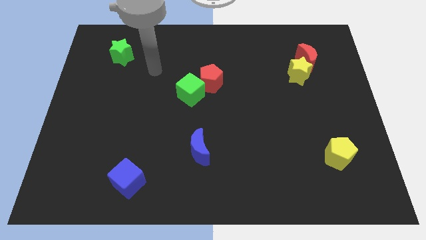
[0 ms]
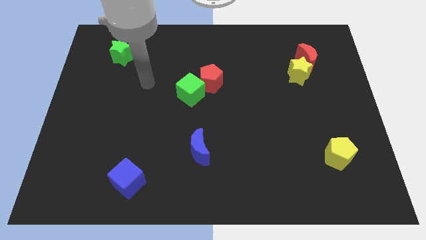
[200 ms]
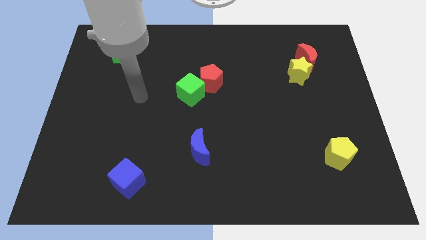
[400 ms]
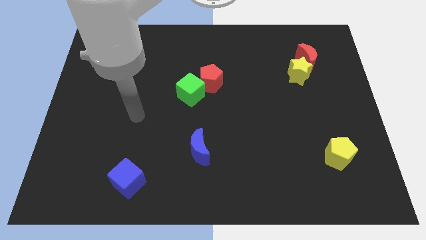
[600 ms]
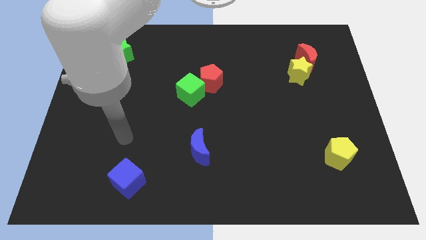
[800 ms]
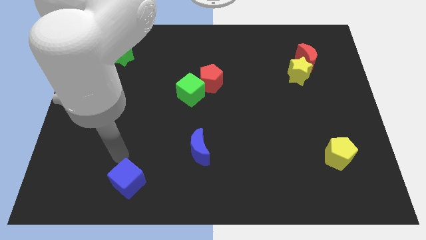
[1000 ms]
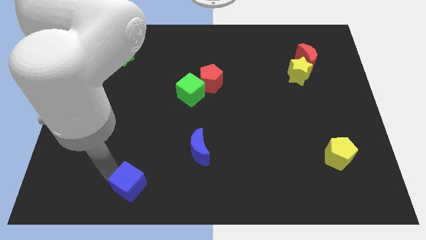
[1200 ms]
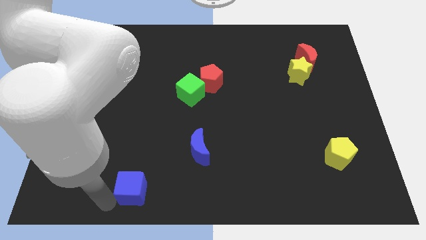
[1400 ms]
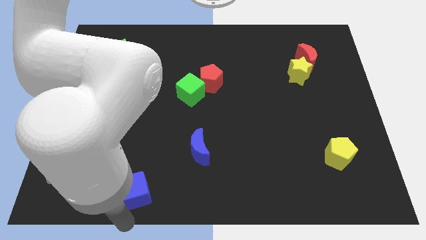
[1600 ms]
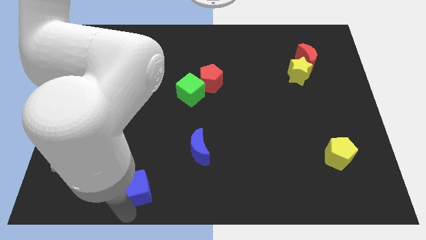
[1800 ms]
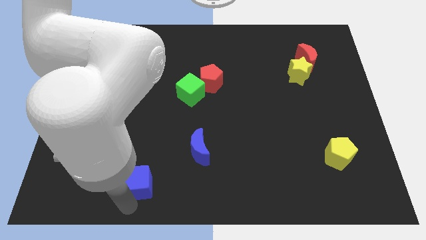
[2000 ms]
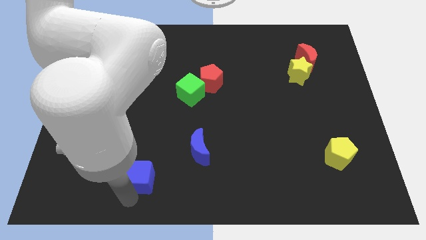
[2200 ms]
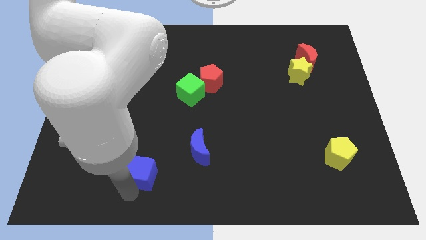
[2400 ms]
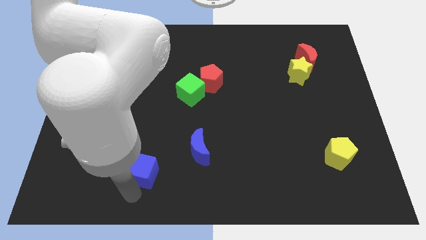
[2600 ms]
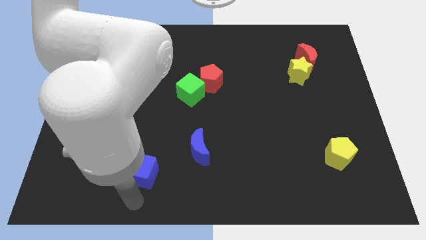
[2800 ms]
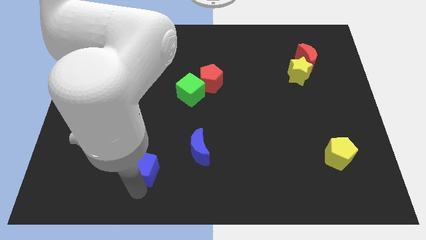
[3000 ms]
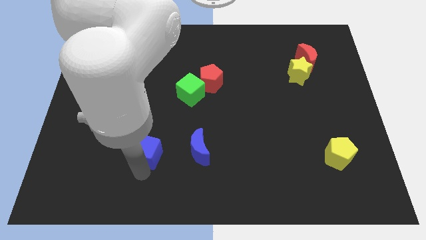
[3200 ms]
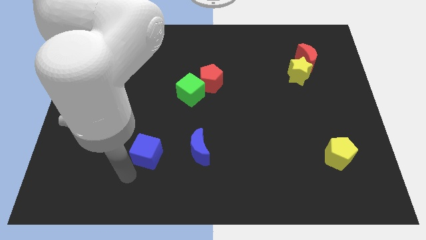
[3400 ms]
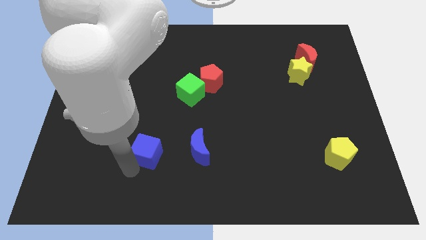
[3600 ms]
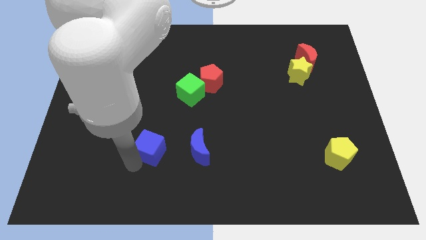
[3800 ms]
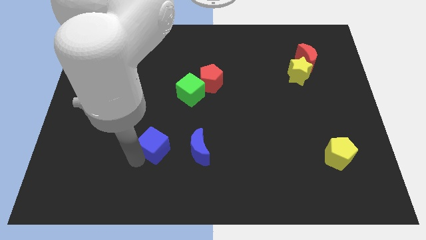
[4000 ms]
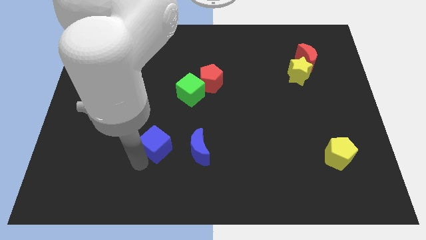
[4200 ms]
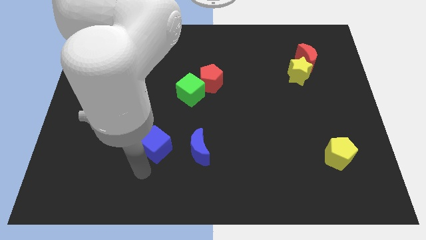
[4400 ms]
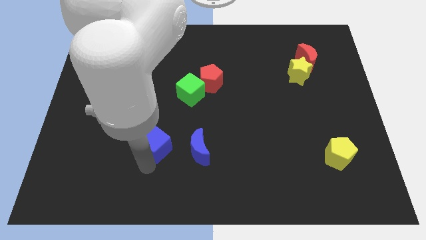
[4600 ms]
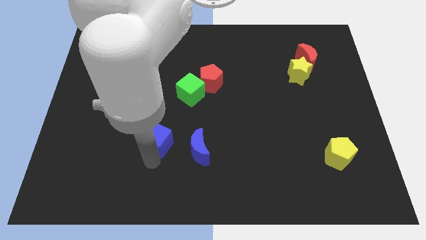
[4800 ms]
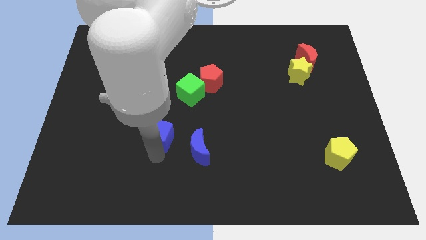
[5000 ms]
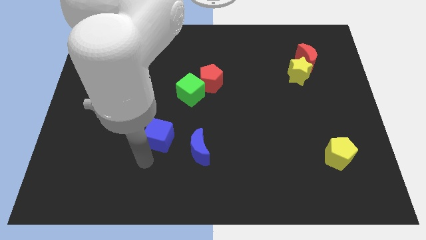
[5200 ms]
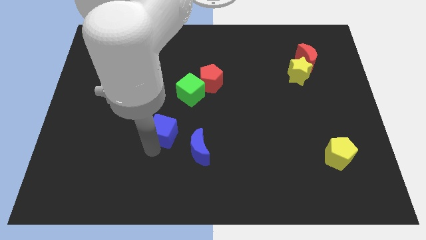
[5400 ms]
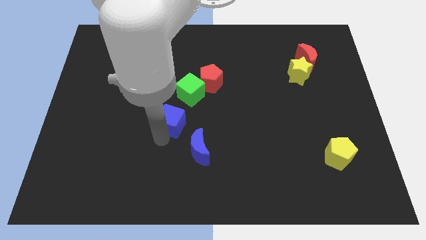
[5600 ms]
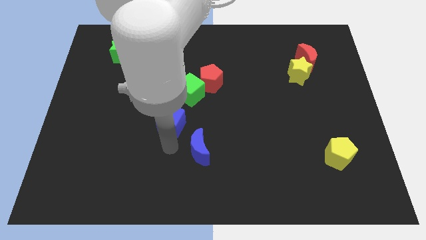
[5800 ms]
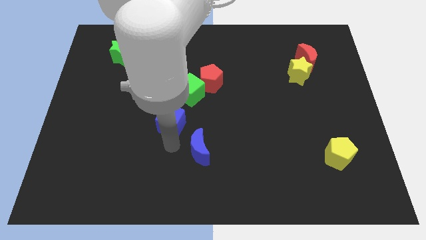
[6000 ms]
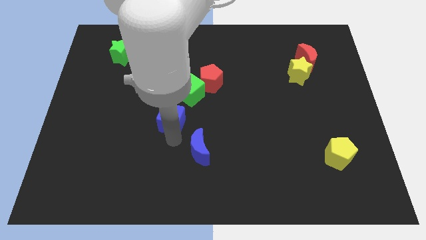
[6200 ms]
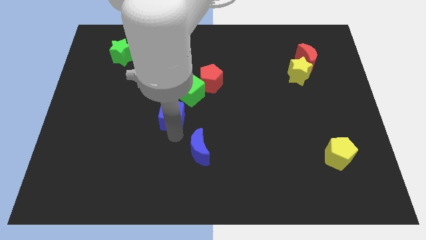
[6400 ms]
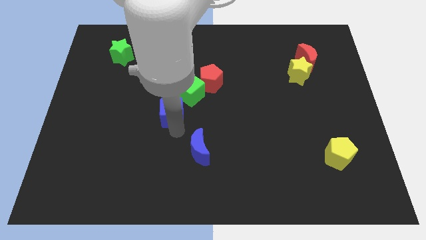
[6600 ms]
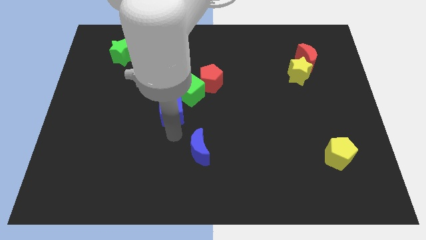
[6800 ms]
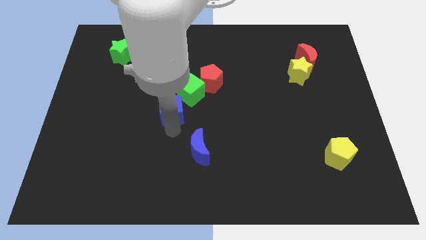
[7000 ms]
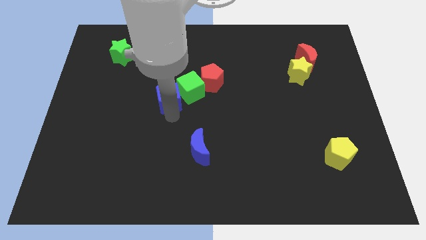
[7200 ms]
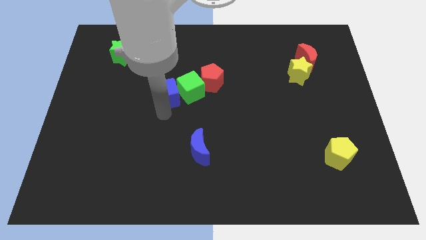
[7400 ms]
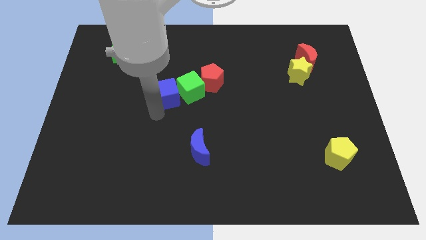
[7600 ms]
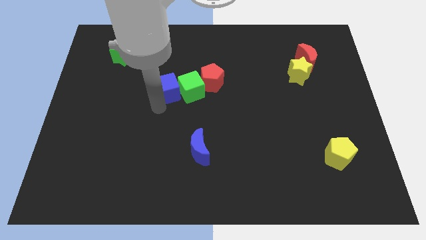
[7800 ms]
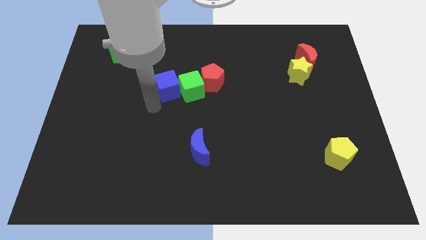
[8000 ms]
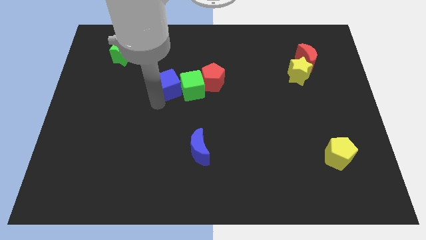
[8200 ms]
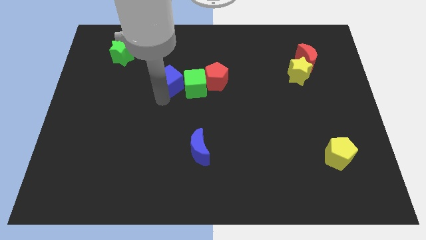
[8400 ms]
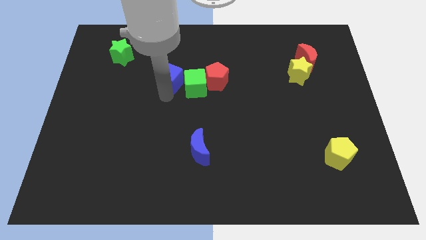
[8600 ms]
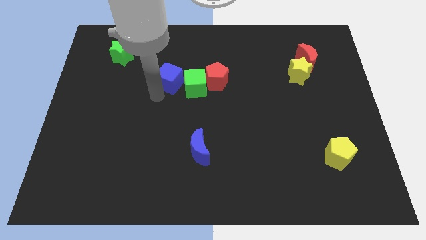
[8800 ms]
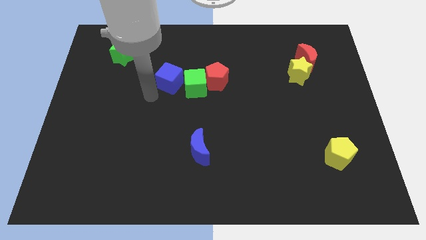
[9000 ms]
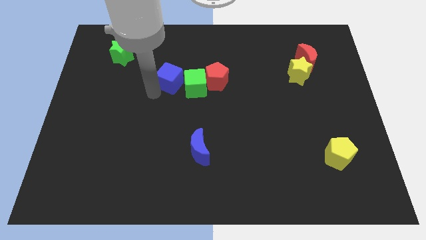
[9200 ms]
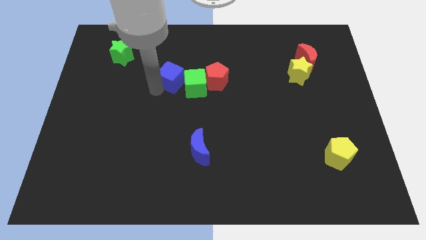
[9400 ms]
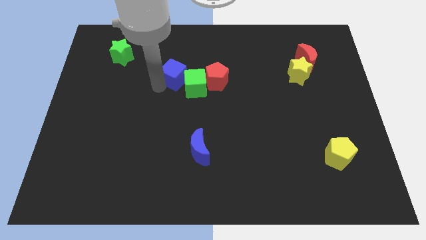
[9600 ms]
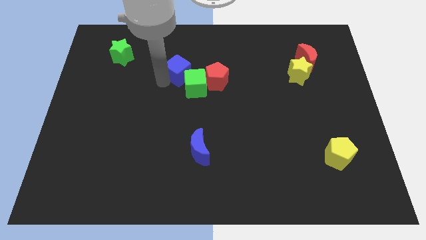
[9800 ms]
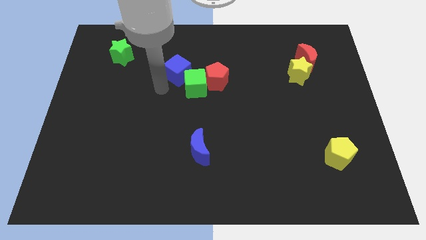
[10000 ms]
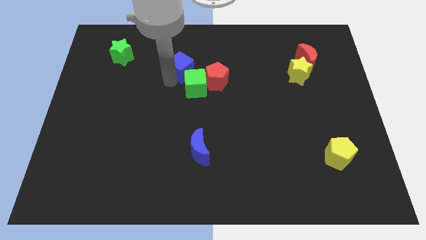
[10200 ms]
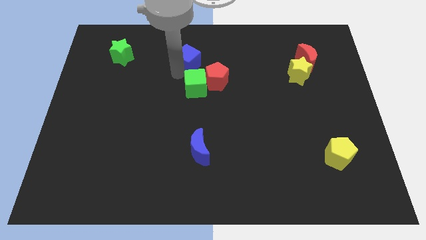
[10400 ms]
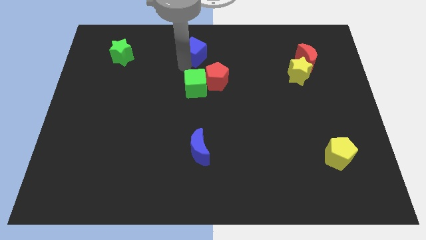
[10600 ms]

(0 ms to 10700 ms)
push the blue cube to the towards your base

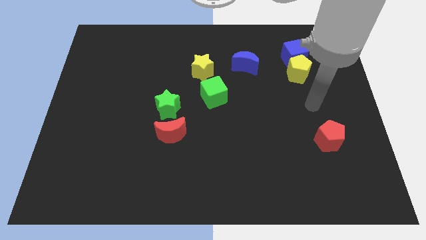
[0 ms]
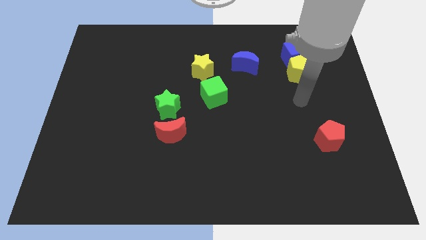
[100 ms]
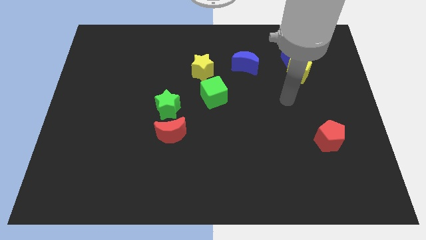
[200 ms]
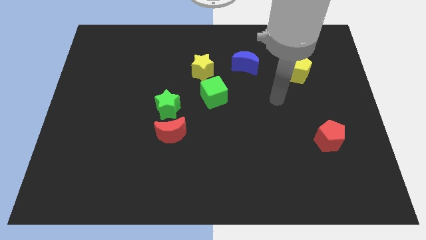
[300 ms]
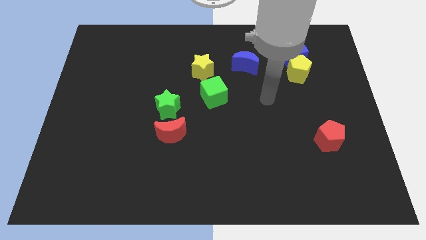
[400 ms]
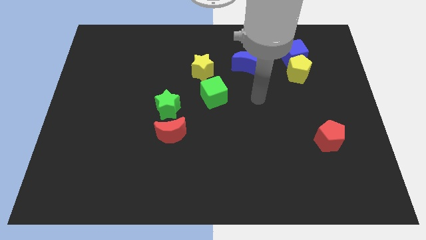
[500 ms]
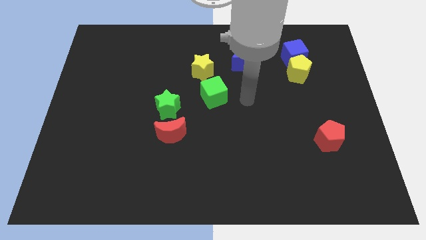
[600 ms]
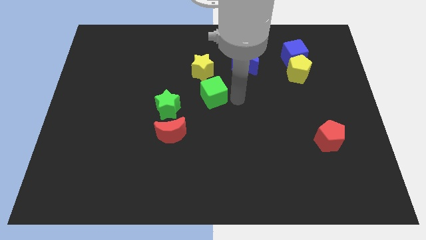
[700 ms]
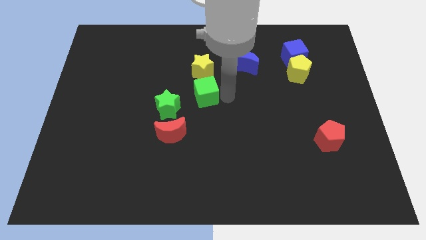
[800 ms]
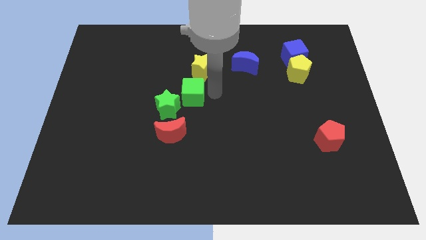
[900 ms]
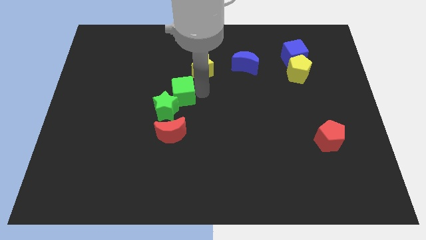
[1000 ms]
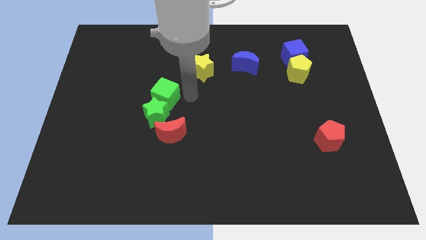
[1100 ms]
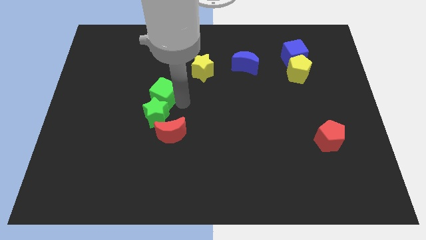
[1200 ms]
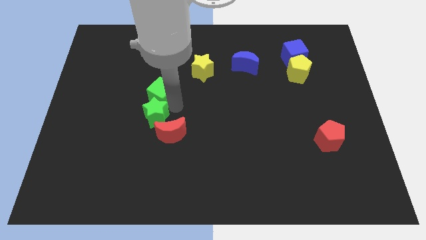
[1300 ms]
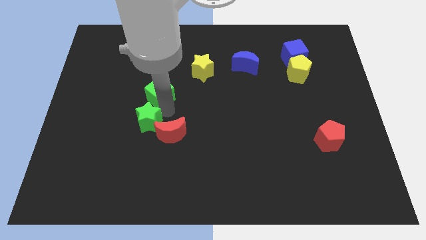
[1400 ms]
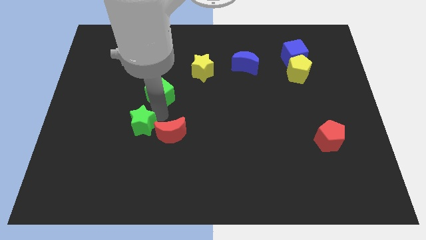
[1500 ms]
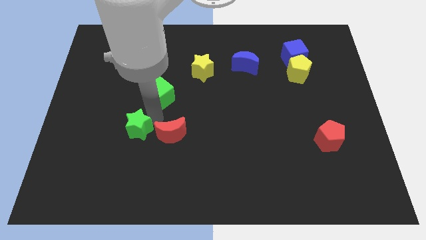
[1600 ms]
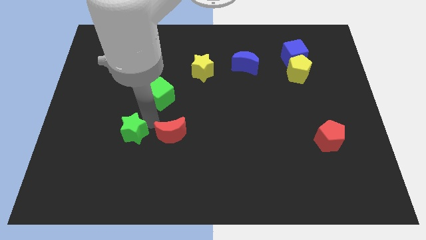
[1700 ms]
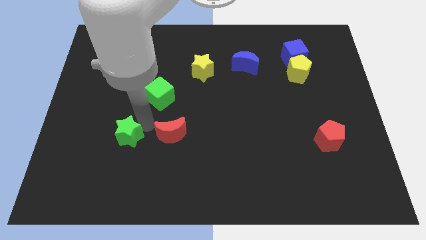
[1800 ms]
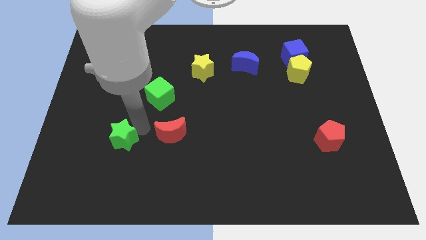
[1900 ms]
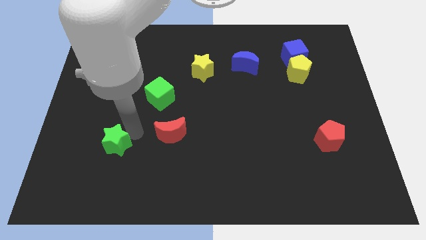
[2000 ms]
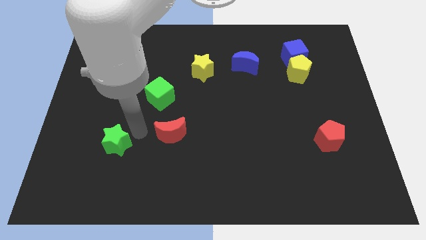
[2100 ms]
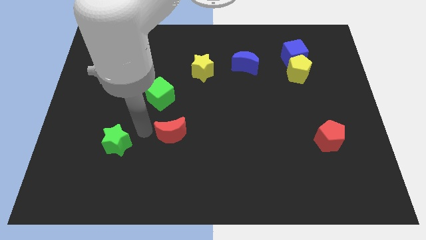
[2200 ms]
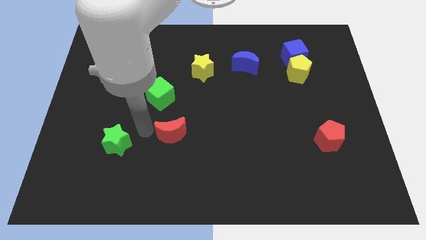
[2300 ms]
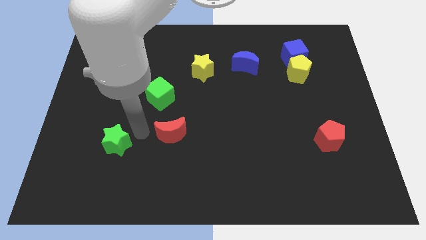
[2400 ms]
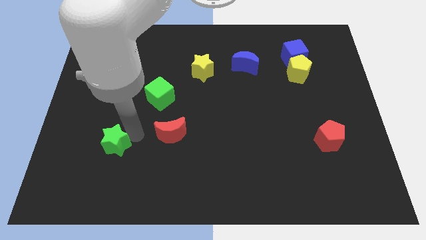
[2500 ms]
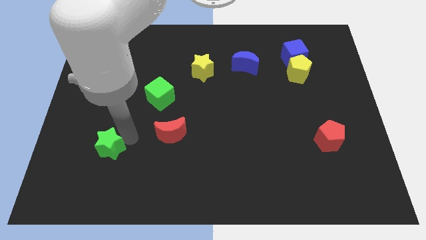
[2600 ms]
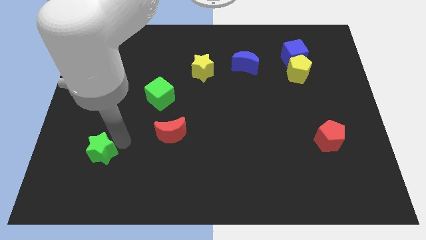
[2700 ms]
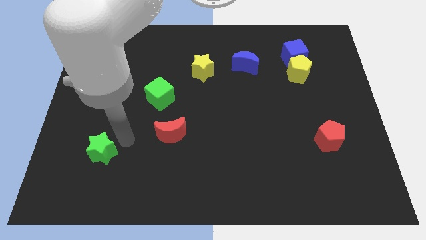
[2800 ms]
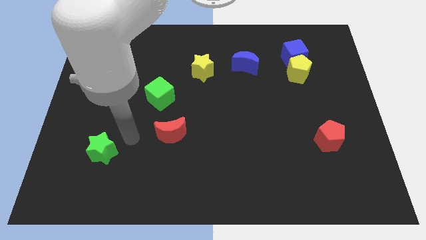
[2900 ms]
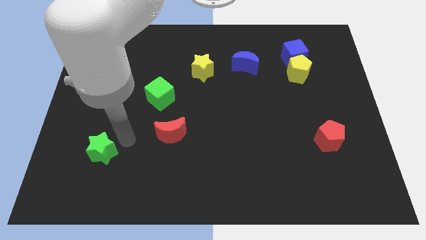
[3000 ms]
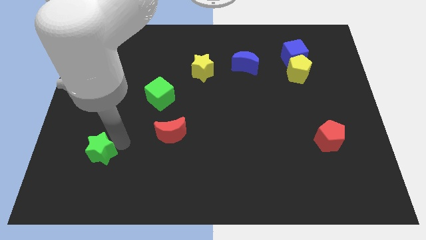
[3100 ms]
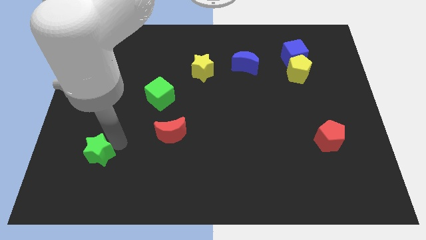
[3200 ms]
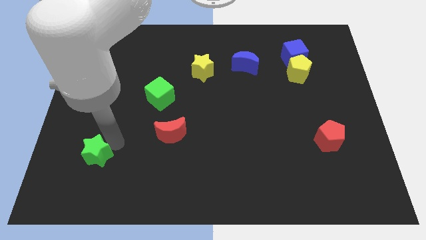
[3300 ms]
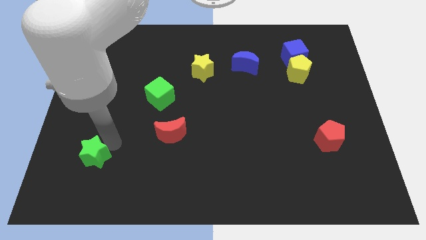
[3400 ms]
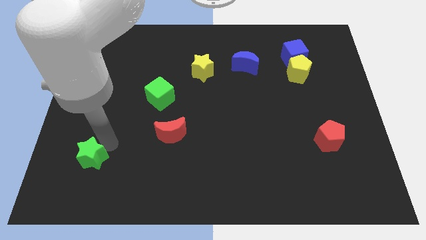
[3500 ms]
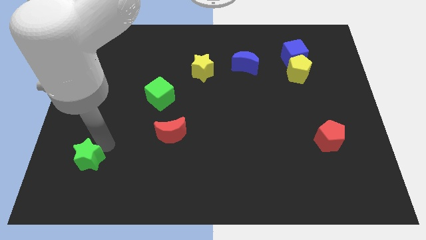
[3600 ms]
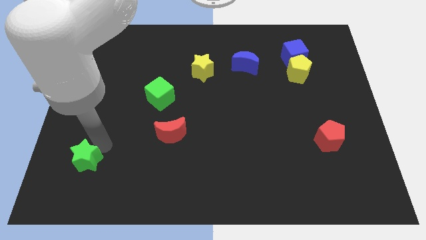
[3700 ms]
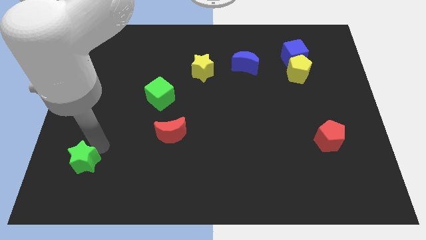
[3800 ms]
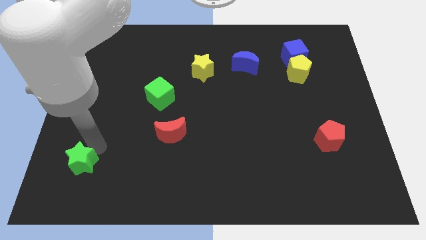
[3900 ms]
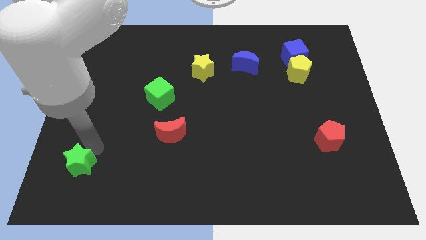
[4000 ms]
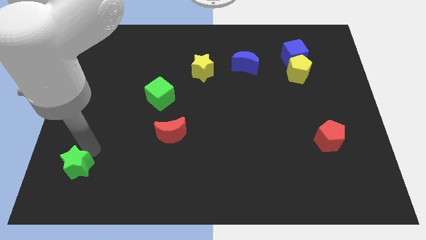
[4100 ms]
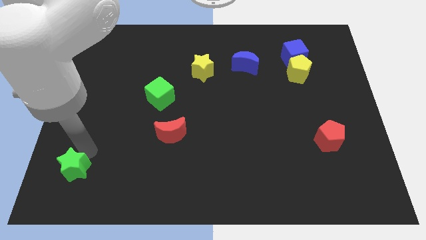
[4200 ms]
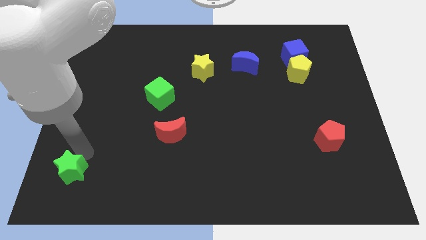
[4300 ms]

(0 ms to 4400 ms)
put the green star to the bottom left of the board
